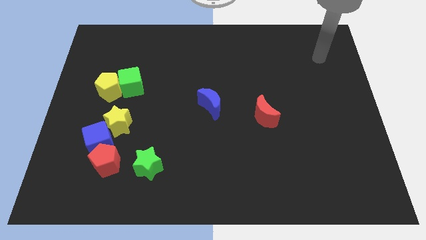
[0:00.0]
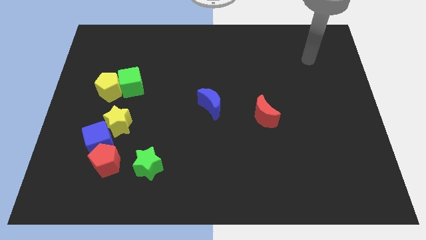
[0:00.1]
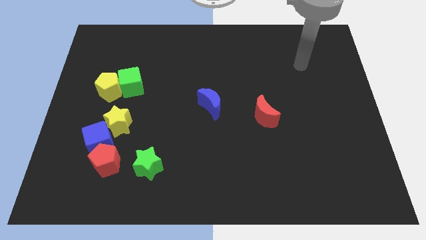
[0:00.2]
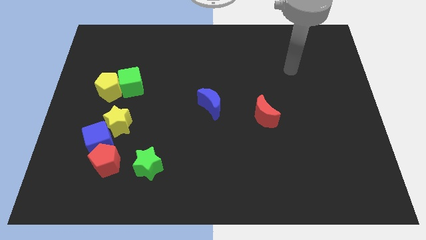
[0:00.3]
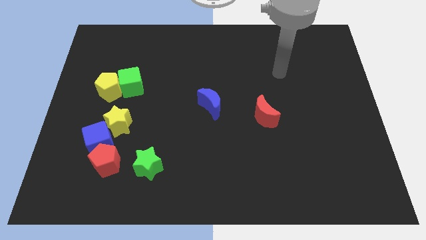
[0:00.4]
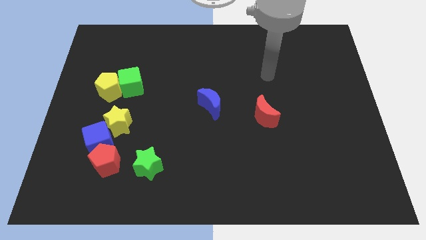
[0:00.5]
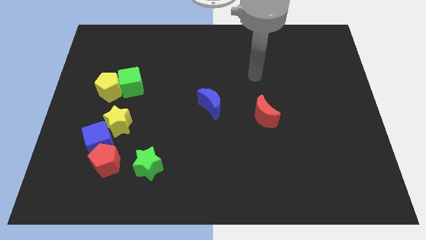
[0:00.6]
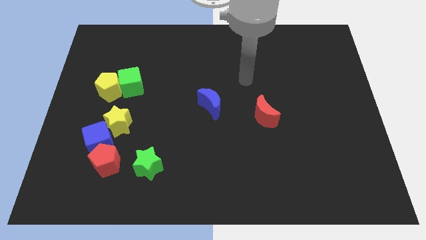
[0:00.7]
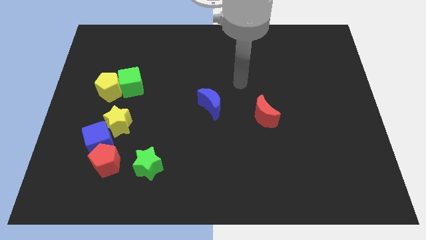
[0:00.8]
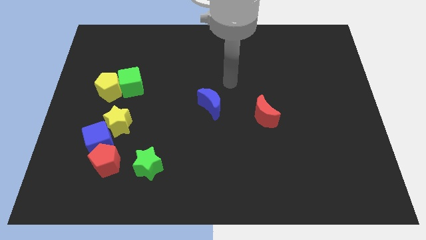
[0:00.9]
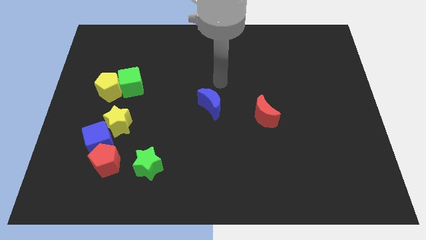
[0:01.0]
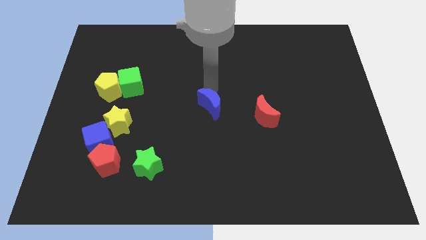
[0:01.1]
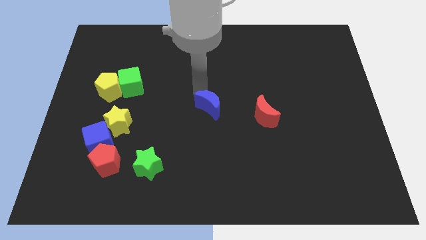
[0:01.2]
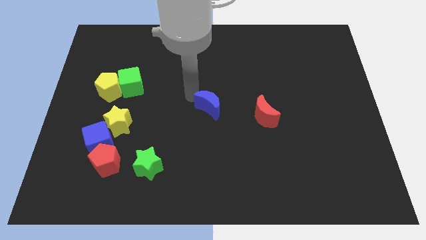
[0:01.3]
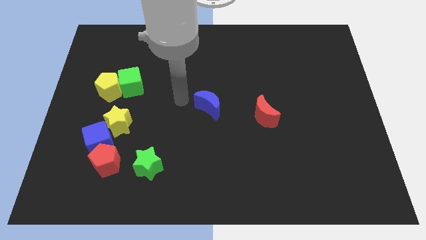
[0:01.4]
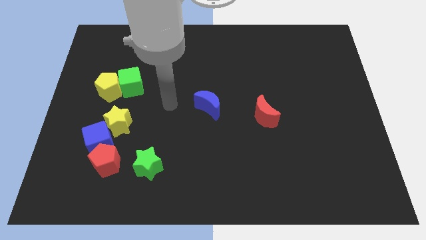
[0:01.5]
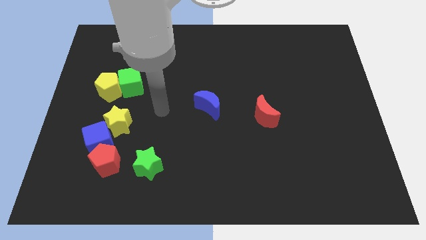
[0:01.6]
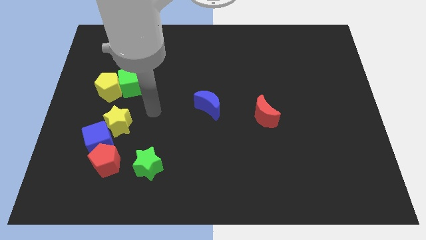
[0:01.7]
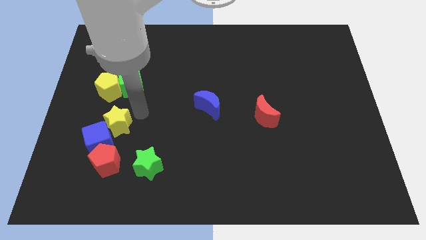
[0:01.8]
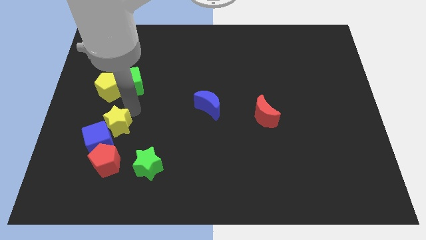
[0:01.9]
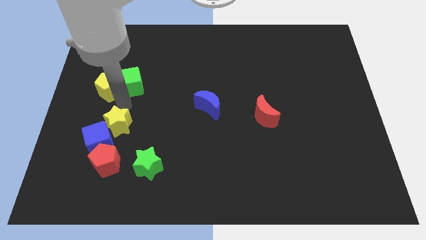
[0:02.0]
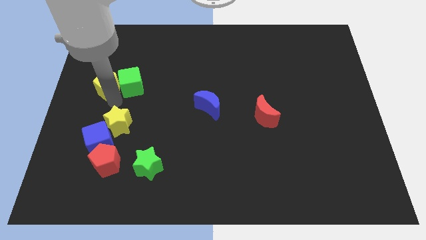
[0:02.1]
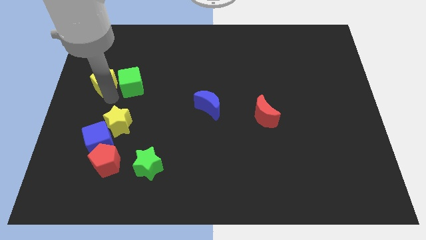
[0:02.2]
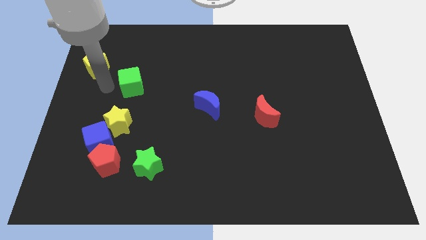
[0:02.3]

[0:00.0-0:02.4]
separate the green cube from the yellow pentagon

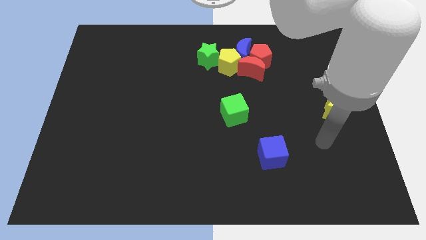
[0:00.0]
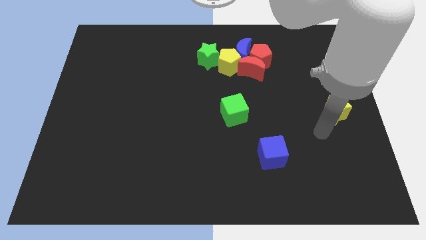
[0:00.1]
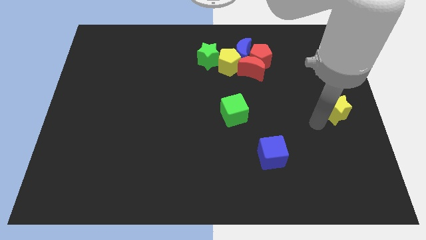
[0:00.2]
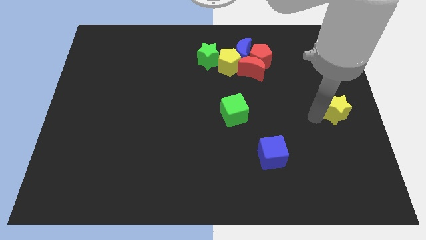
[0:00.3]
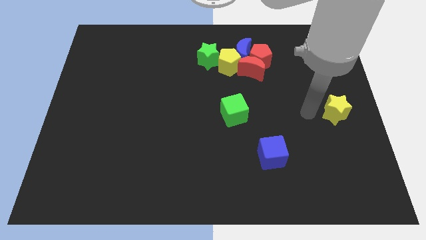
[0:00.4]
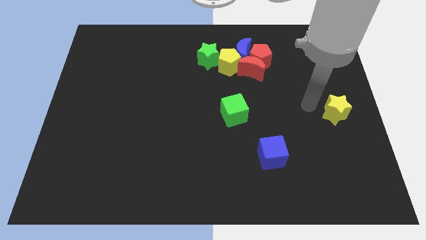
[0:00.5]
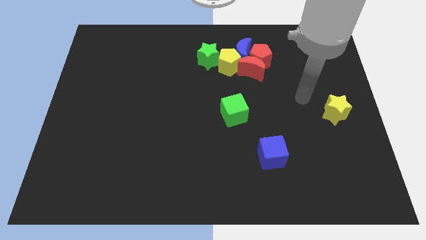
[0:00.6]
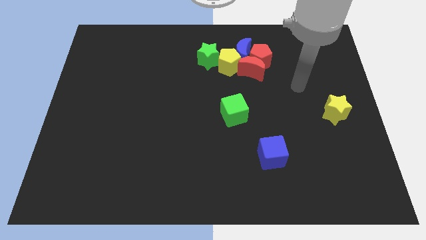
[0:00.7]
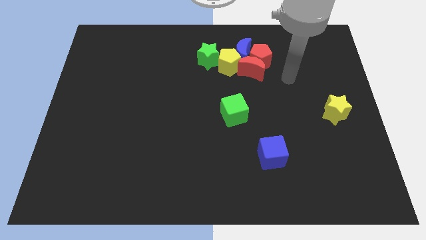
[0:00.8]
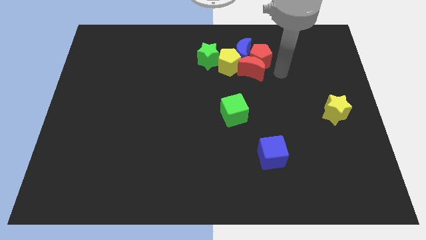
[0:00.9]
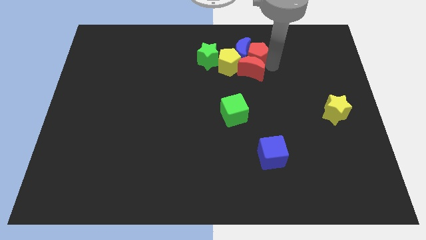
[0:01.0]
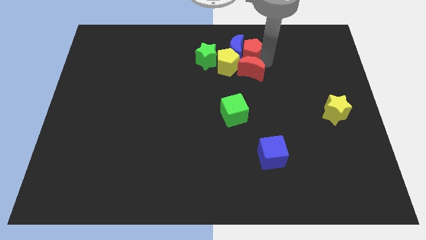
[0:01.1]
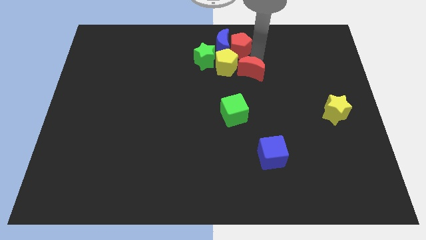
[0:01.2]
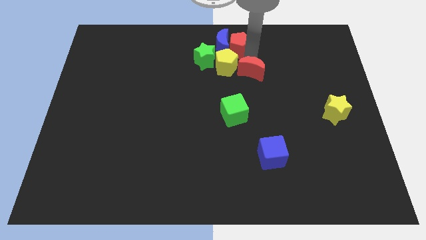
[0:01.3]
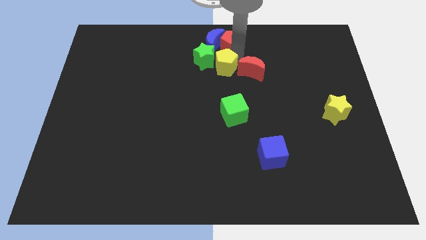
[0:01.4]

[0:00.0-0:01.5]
move the red moon away from the red pentagon, blue moon, and yellow pentagon

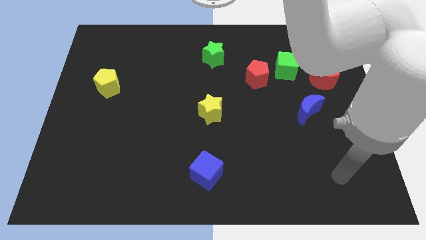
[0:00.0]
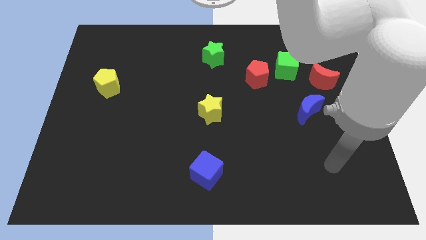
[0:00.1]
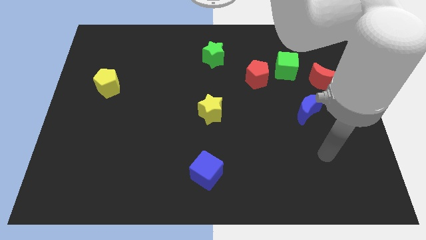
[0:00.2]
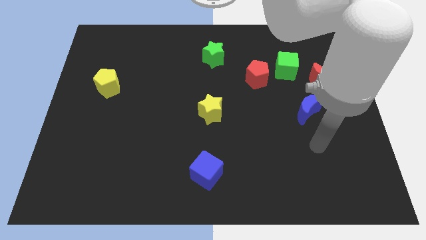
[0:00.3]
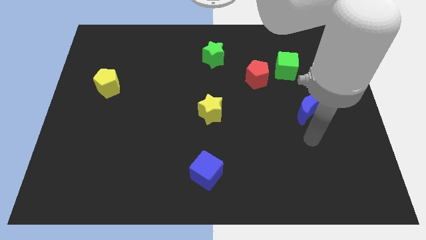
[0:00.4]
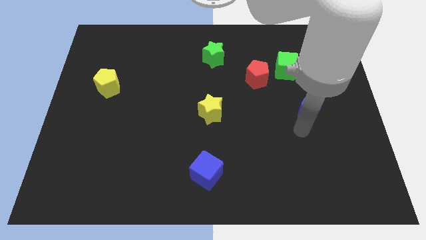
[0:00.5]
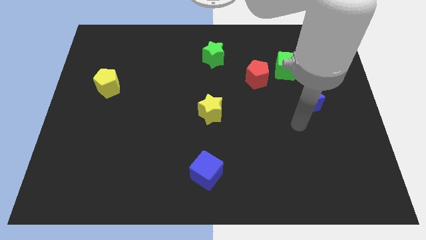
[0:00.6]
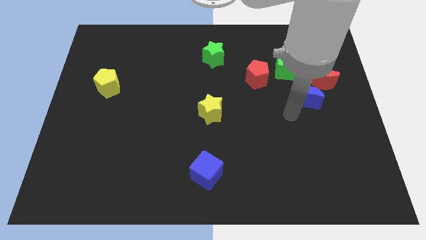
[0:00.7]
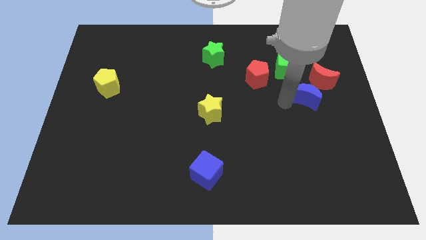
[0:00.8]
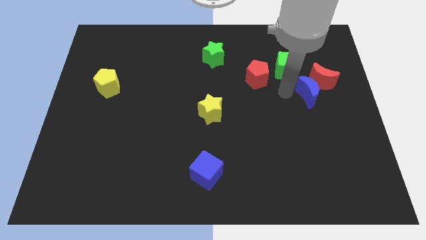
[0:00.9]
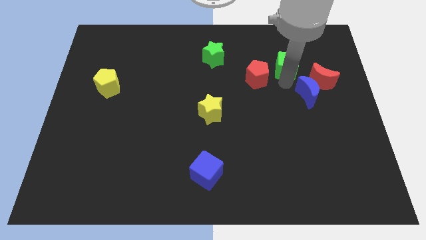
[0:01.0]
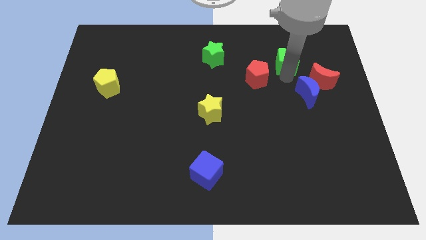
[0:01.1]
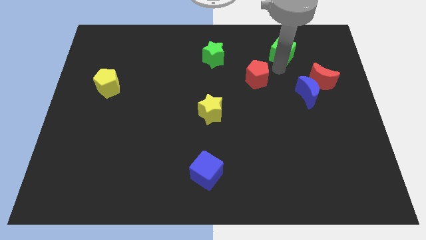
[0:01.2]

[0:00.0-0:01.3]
separate the red pentagon from the green cube

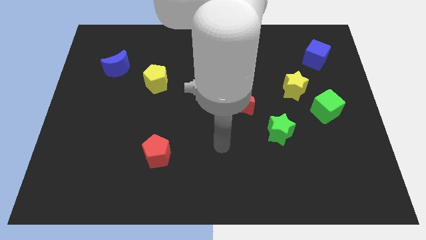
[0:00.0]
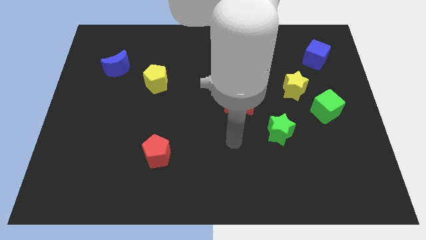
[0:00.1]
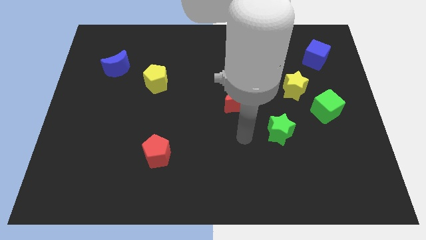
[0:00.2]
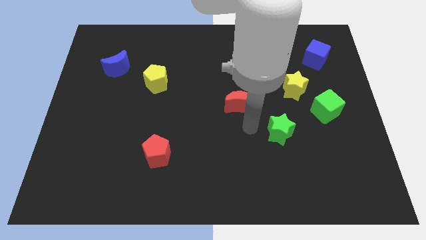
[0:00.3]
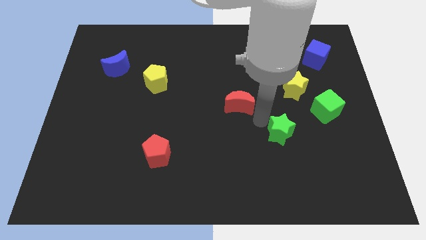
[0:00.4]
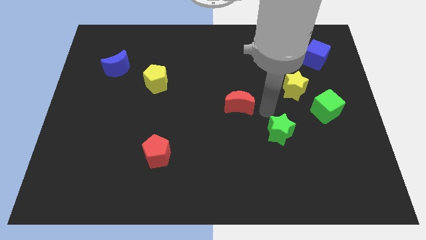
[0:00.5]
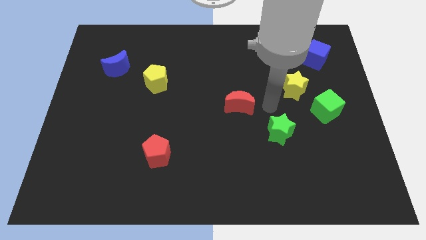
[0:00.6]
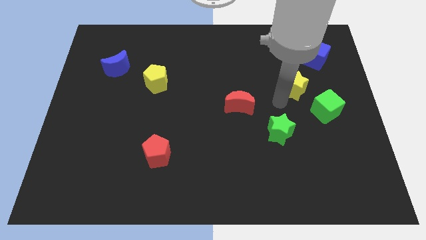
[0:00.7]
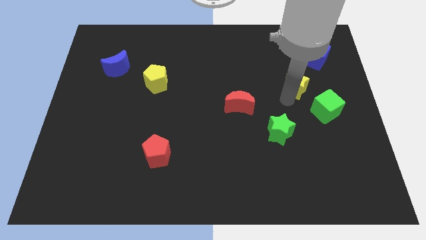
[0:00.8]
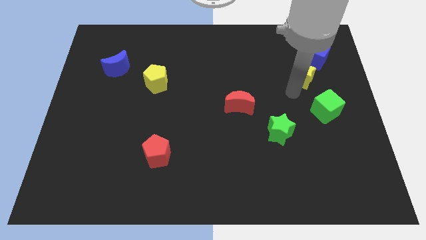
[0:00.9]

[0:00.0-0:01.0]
pull the green cube apart from the yellow star

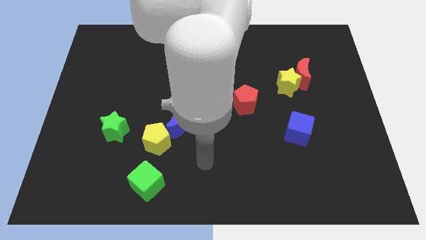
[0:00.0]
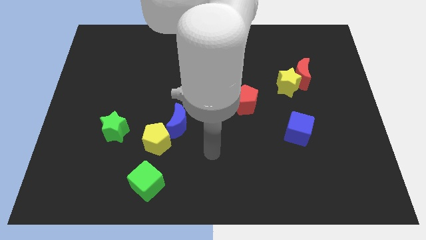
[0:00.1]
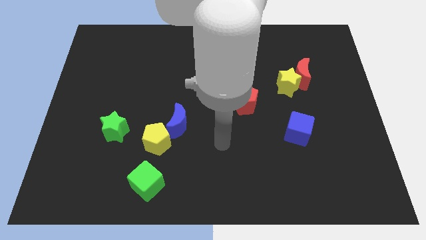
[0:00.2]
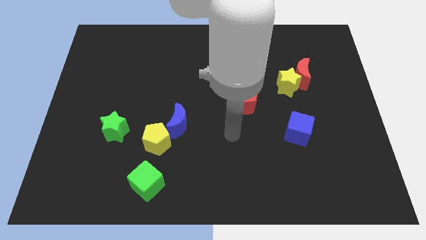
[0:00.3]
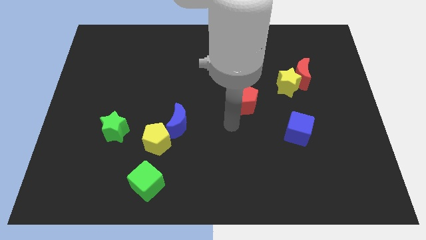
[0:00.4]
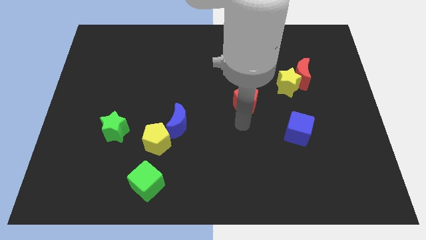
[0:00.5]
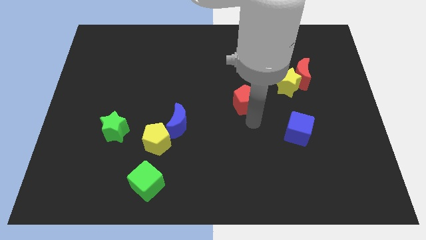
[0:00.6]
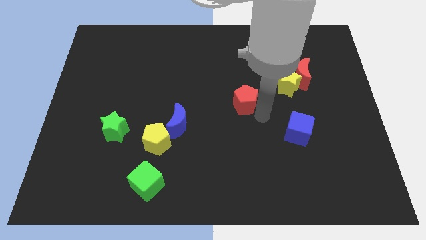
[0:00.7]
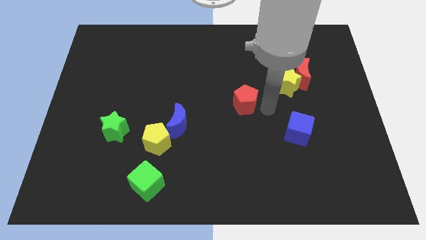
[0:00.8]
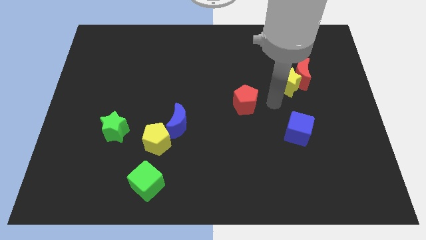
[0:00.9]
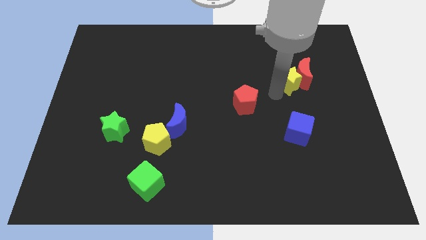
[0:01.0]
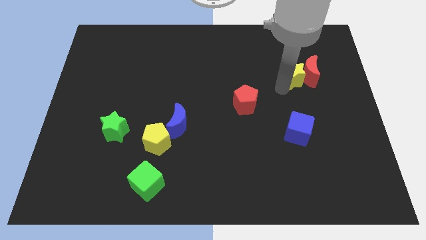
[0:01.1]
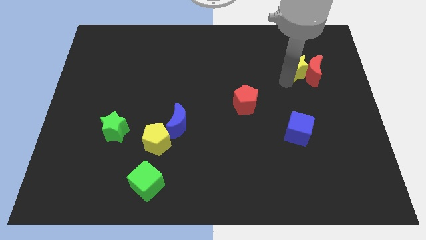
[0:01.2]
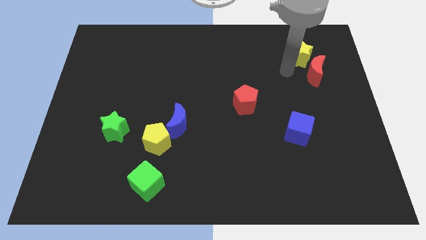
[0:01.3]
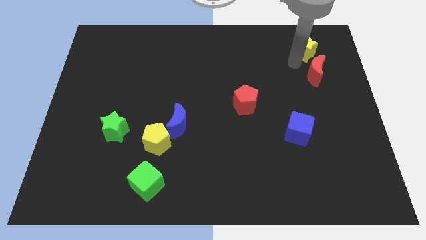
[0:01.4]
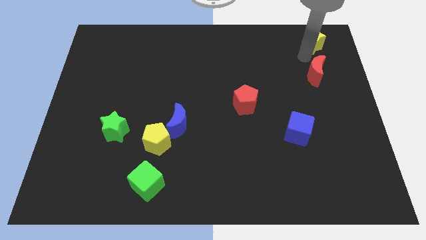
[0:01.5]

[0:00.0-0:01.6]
pull the red moon apart from the yellow star

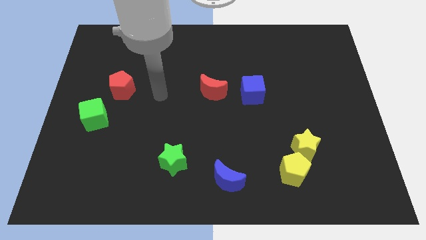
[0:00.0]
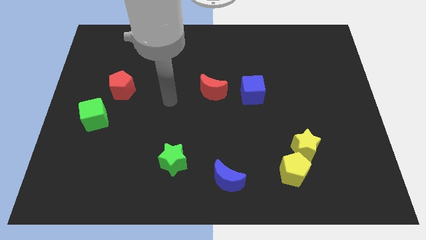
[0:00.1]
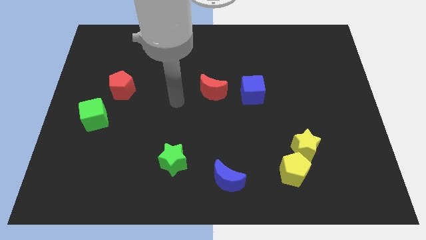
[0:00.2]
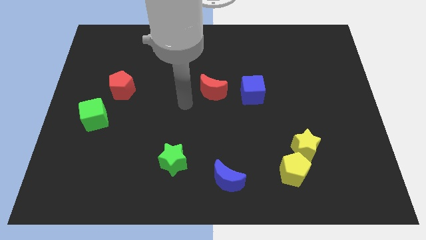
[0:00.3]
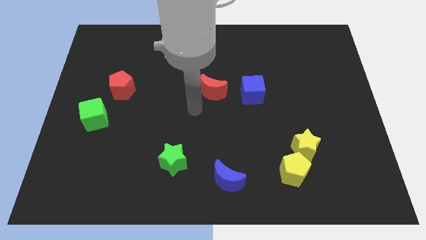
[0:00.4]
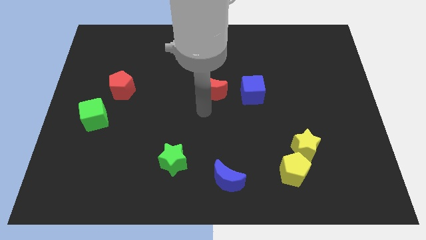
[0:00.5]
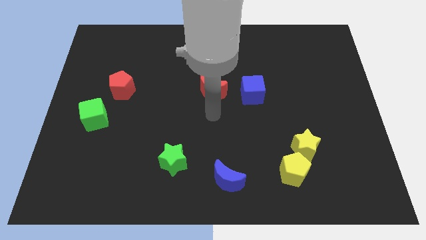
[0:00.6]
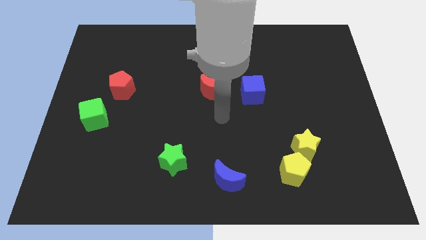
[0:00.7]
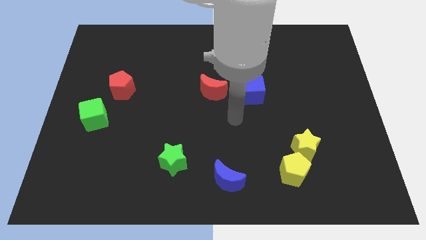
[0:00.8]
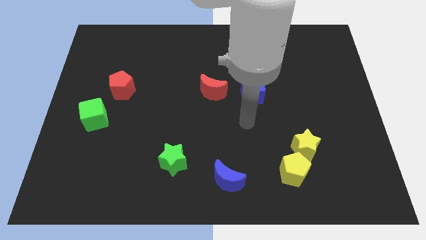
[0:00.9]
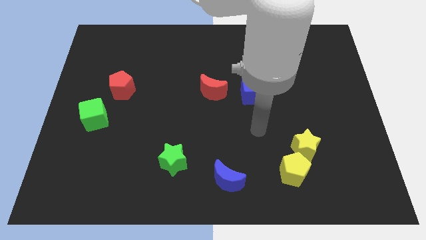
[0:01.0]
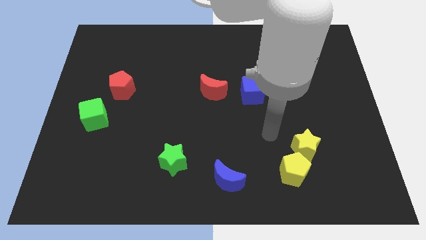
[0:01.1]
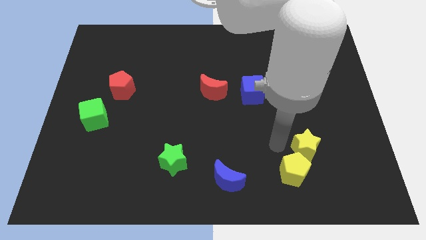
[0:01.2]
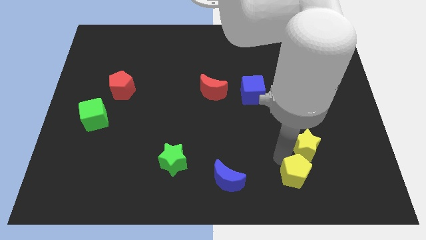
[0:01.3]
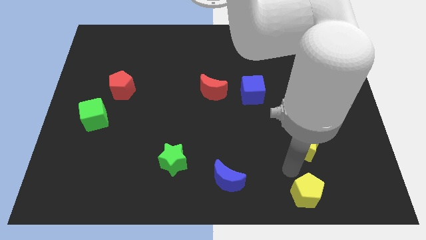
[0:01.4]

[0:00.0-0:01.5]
move the yellow star away from the yellow pentagon
